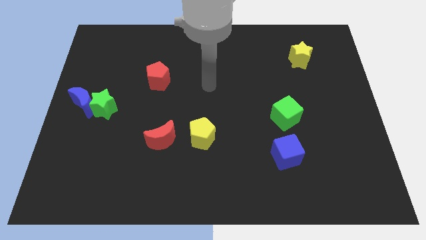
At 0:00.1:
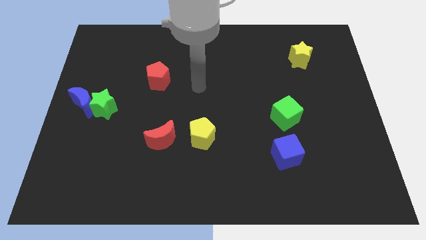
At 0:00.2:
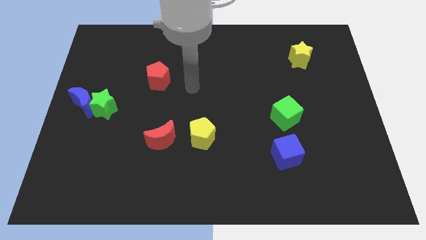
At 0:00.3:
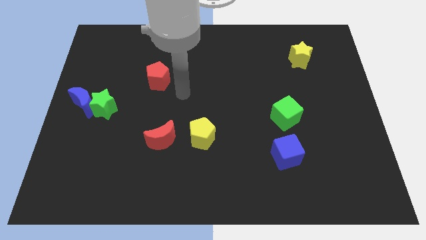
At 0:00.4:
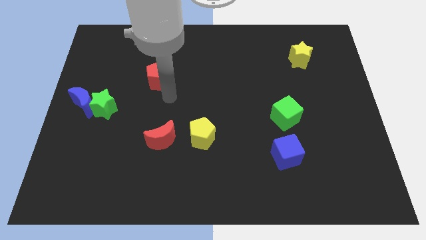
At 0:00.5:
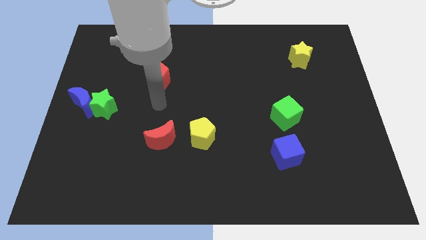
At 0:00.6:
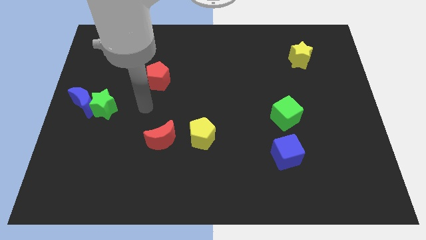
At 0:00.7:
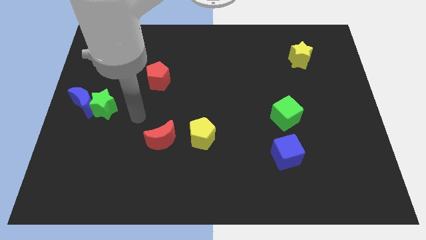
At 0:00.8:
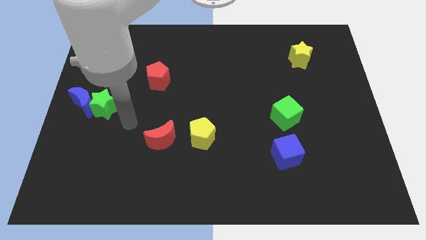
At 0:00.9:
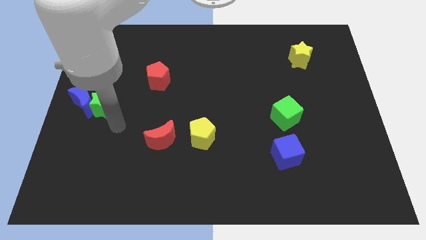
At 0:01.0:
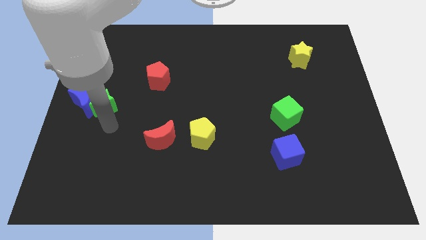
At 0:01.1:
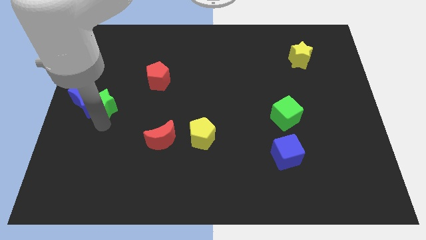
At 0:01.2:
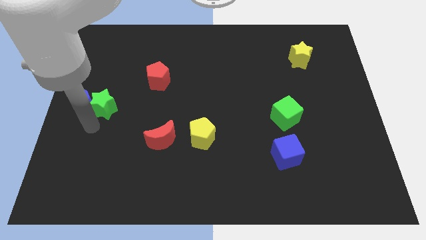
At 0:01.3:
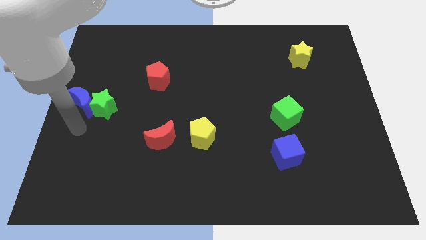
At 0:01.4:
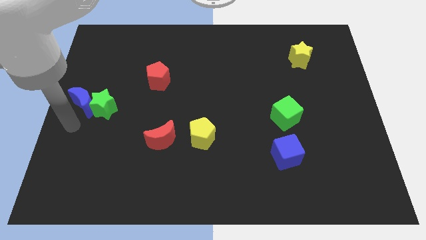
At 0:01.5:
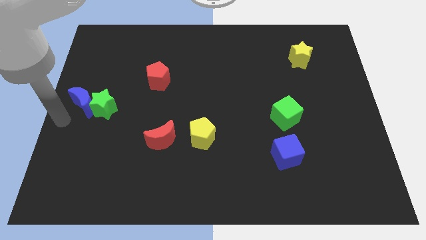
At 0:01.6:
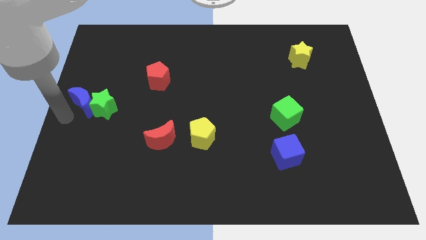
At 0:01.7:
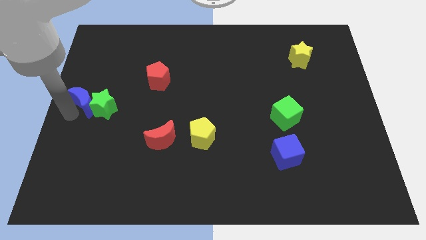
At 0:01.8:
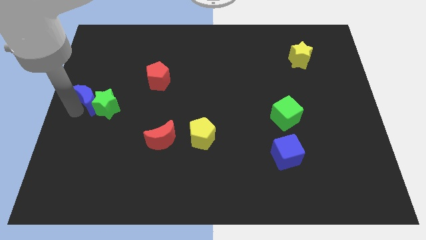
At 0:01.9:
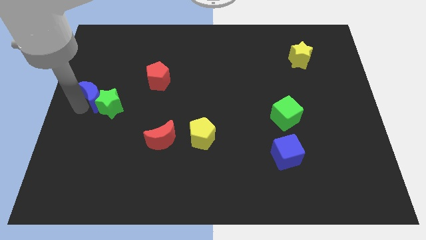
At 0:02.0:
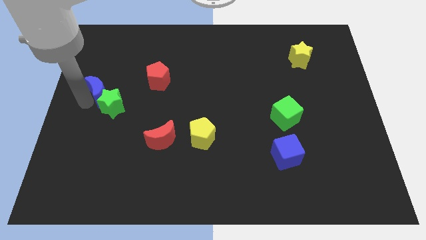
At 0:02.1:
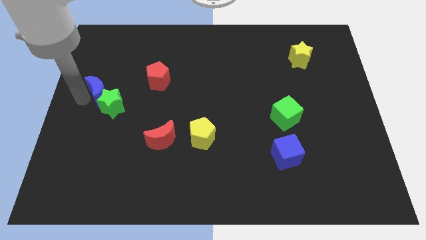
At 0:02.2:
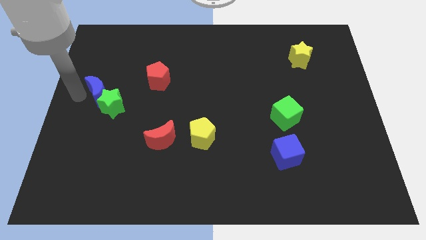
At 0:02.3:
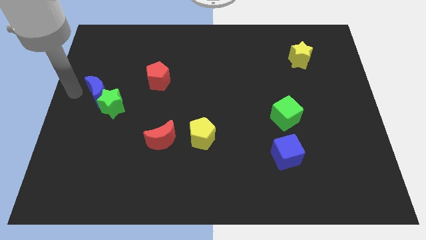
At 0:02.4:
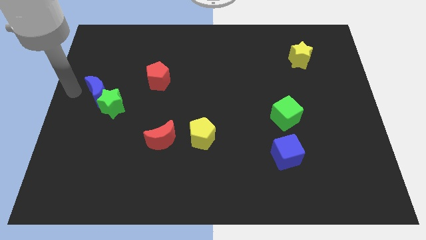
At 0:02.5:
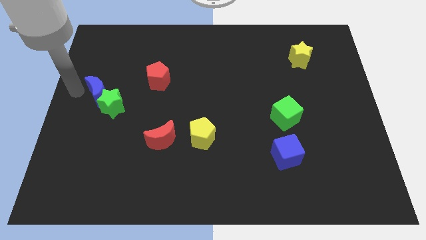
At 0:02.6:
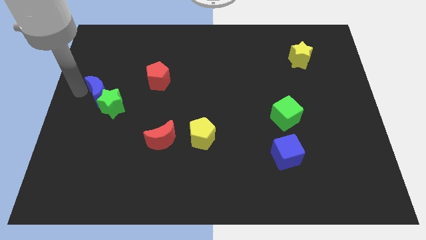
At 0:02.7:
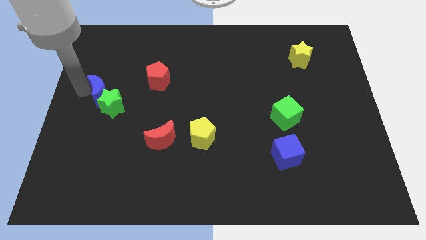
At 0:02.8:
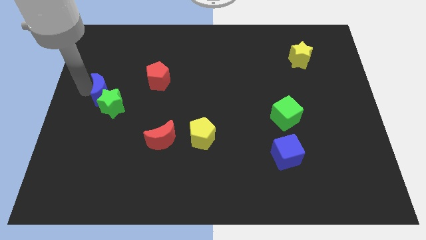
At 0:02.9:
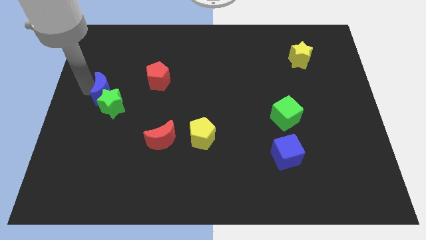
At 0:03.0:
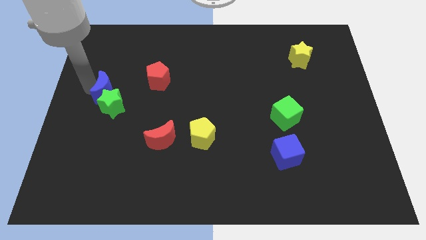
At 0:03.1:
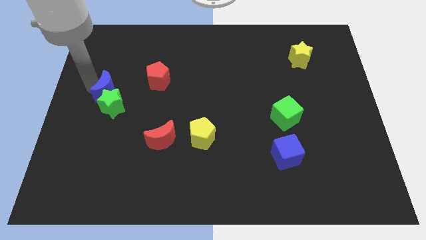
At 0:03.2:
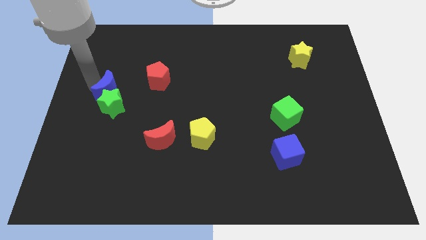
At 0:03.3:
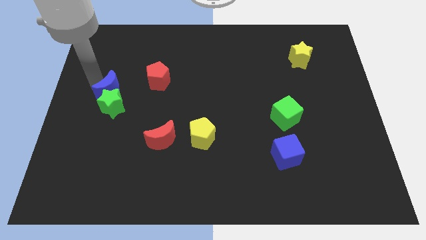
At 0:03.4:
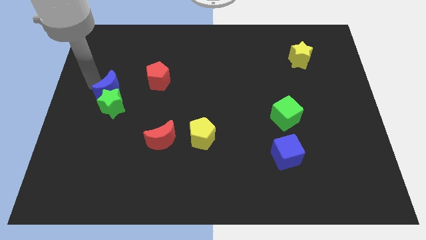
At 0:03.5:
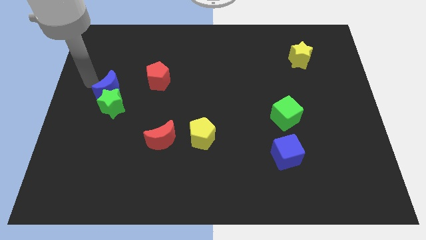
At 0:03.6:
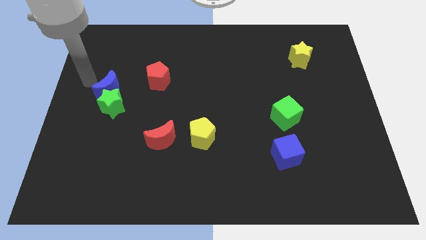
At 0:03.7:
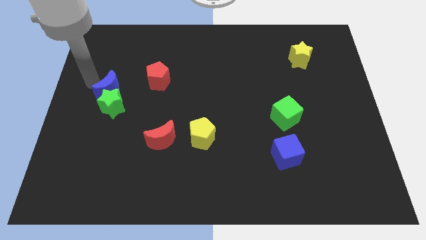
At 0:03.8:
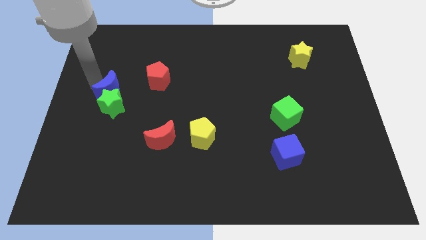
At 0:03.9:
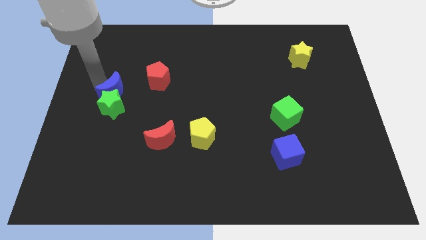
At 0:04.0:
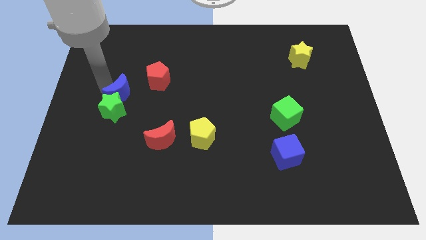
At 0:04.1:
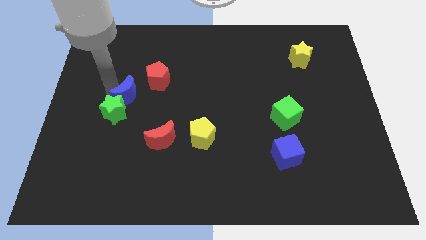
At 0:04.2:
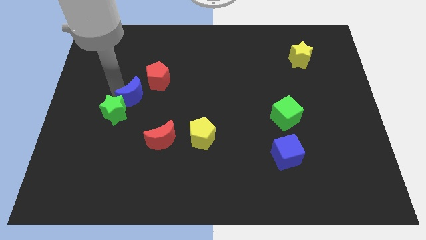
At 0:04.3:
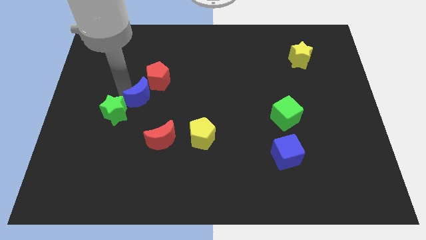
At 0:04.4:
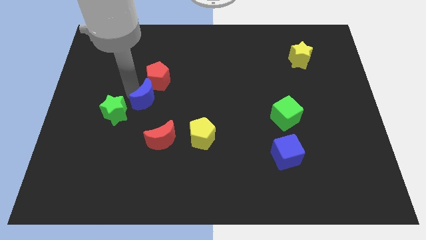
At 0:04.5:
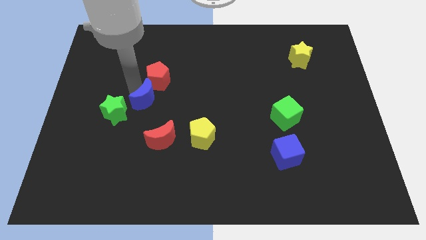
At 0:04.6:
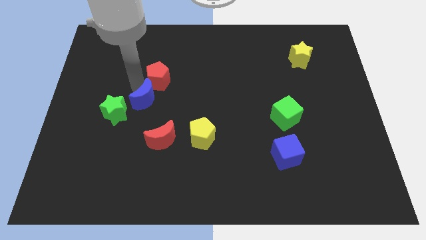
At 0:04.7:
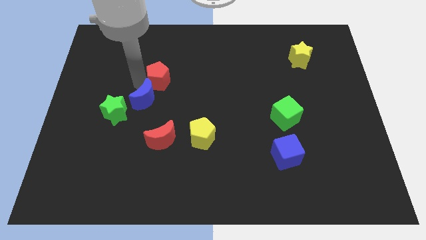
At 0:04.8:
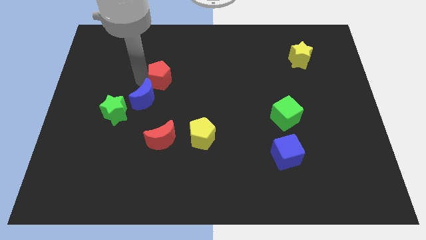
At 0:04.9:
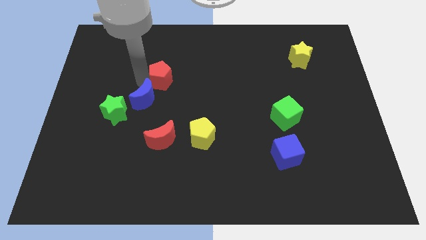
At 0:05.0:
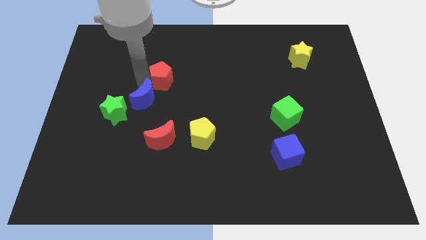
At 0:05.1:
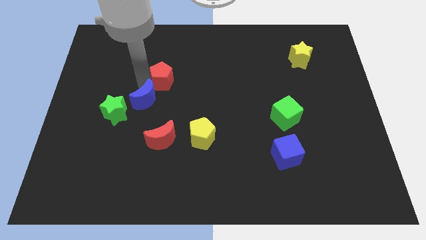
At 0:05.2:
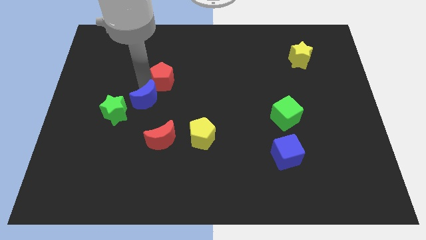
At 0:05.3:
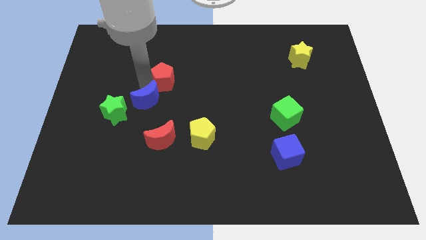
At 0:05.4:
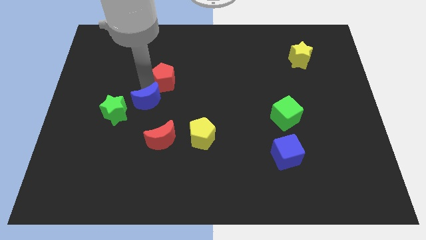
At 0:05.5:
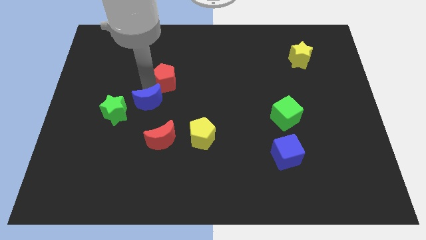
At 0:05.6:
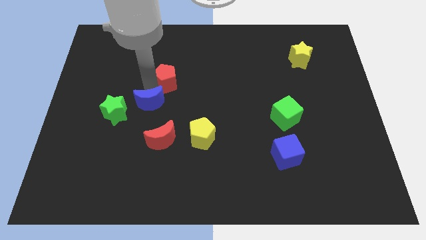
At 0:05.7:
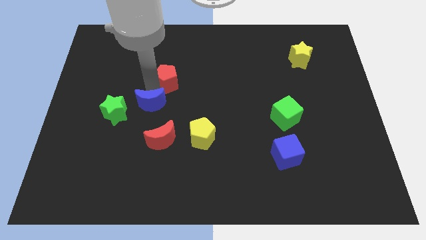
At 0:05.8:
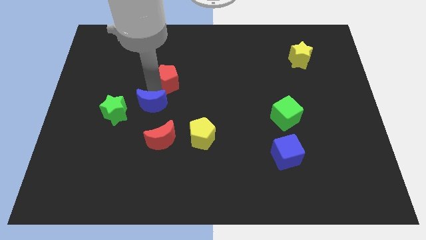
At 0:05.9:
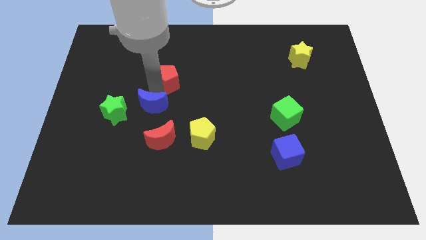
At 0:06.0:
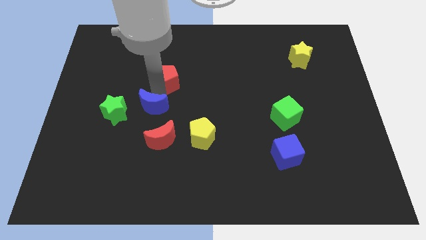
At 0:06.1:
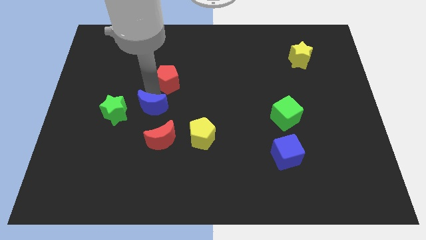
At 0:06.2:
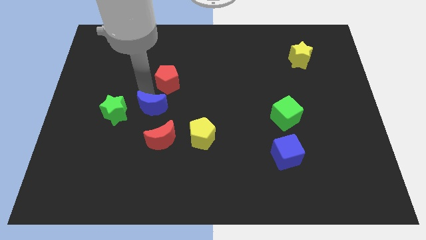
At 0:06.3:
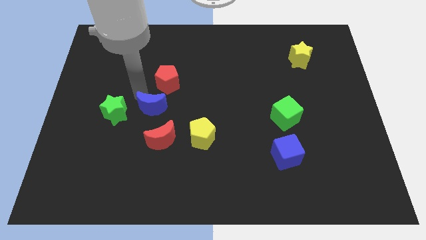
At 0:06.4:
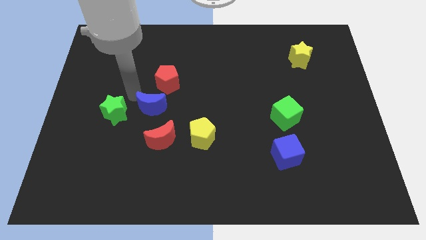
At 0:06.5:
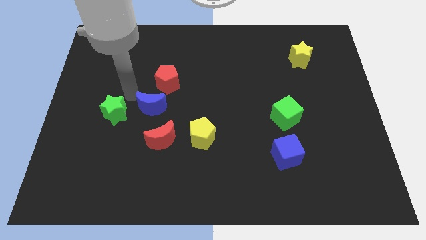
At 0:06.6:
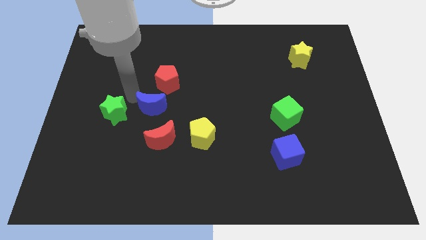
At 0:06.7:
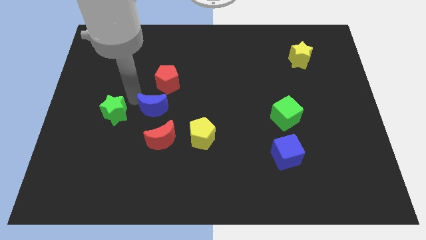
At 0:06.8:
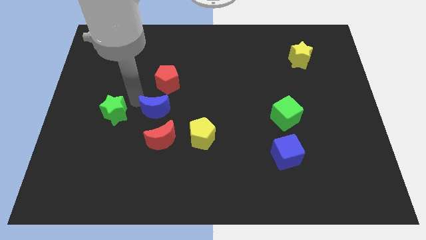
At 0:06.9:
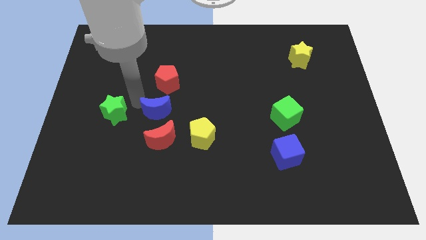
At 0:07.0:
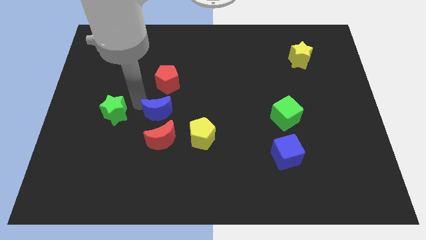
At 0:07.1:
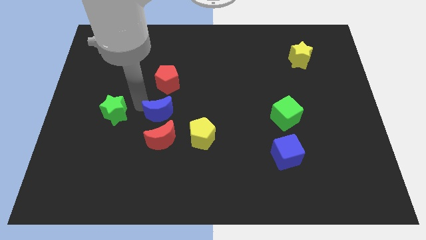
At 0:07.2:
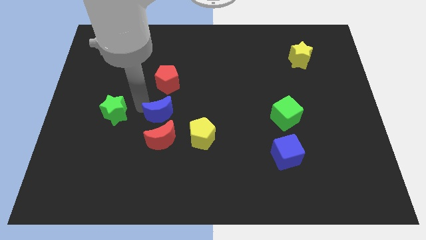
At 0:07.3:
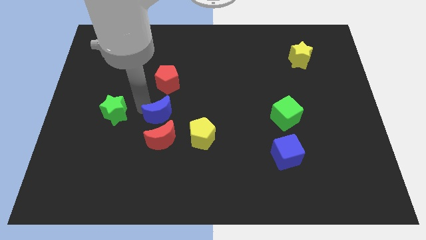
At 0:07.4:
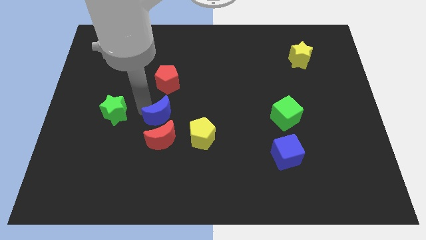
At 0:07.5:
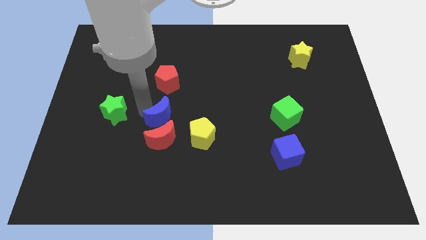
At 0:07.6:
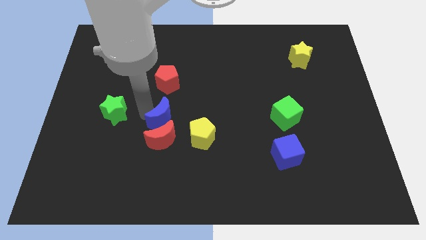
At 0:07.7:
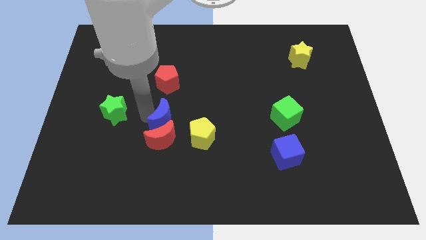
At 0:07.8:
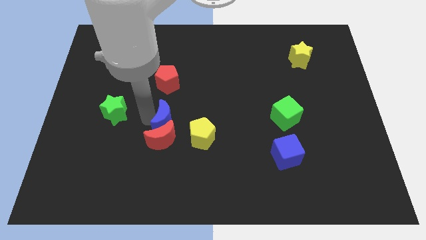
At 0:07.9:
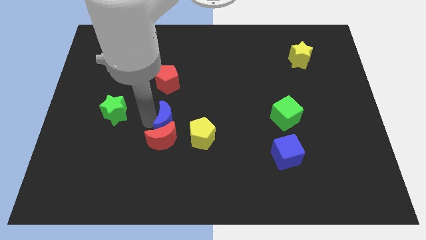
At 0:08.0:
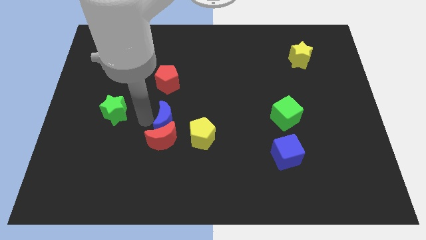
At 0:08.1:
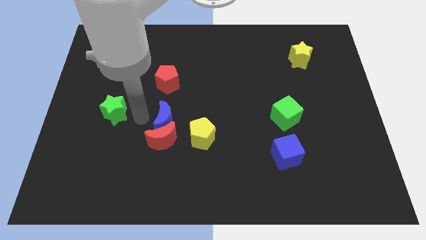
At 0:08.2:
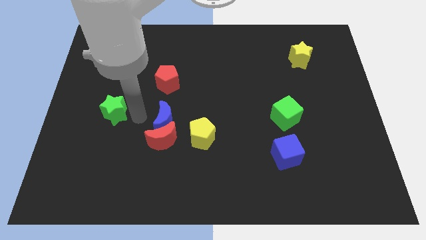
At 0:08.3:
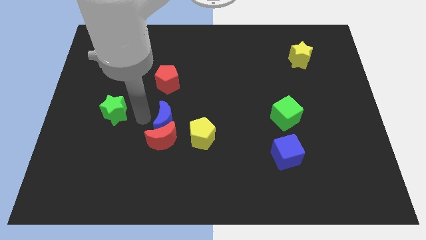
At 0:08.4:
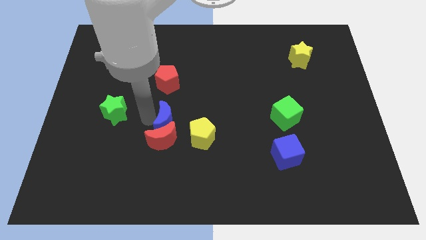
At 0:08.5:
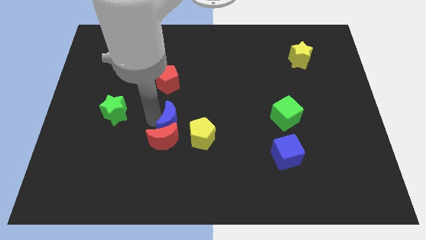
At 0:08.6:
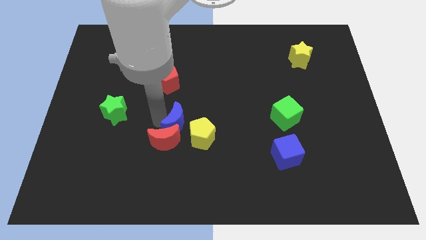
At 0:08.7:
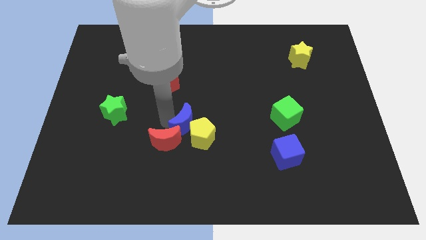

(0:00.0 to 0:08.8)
move the blue moon next to the yellow pentagon
